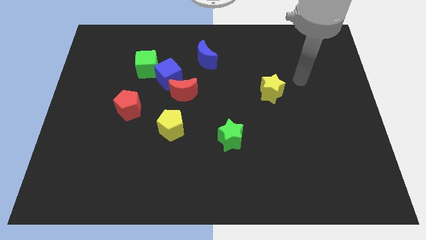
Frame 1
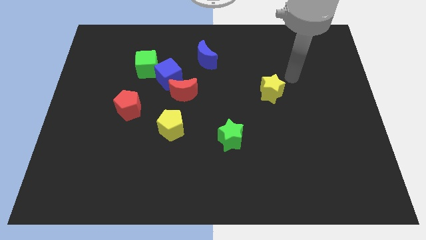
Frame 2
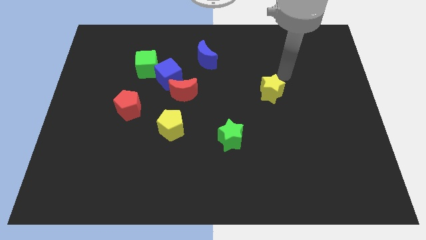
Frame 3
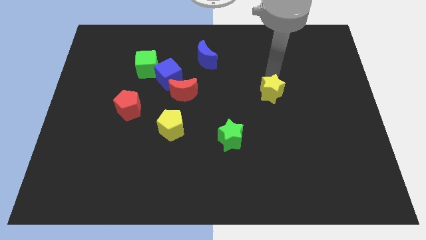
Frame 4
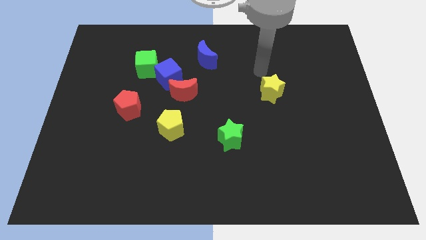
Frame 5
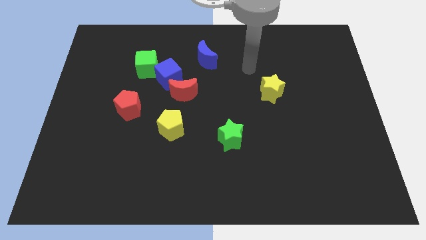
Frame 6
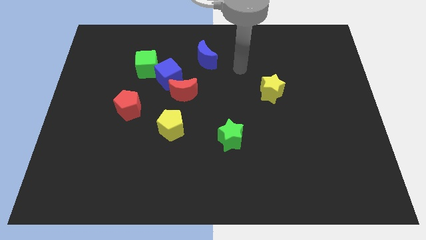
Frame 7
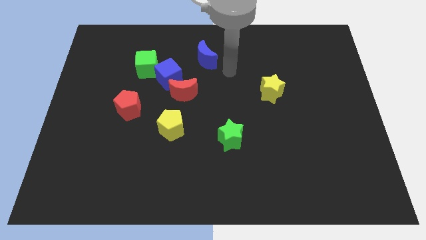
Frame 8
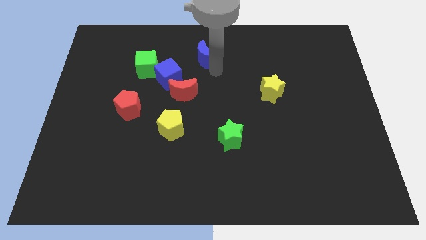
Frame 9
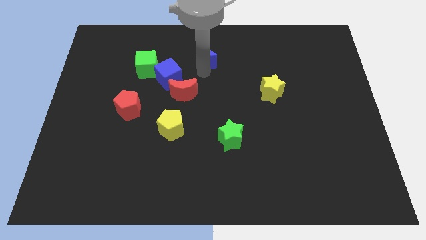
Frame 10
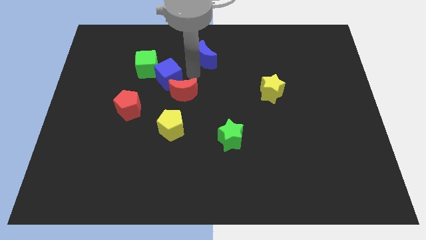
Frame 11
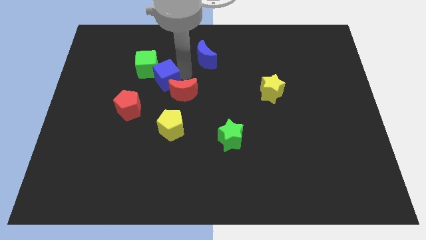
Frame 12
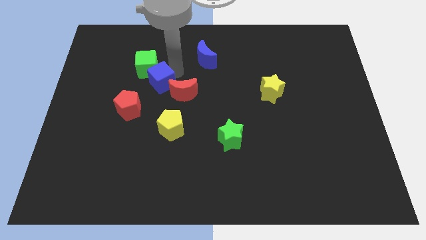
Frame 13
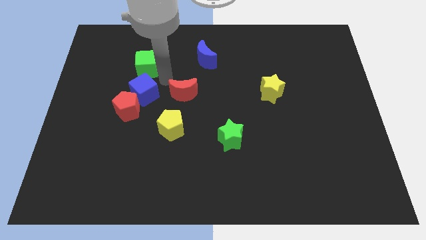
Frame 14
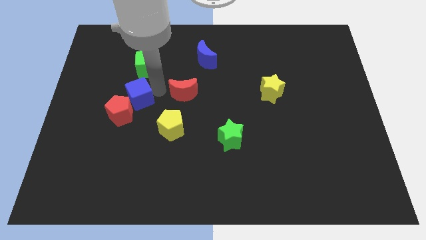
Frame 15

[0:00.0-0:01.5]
move the red moon away from the blue cube

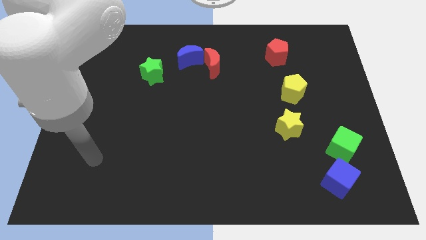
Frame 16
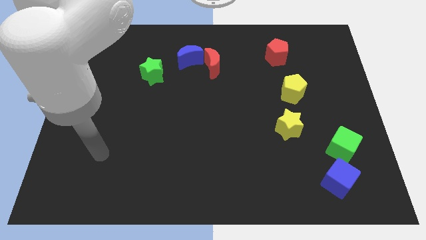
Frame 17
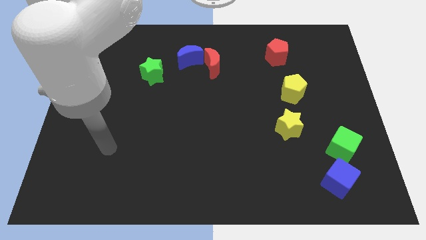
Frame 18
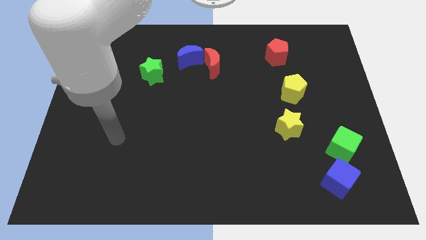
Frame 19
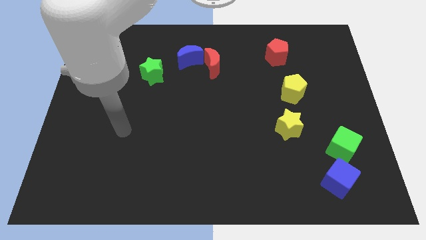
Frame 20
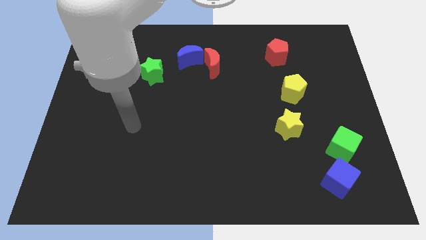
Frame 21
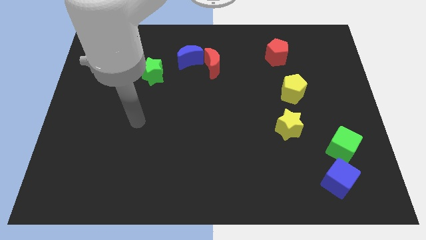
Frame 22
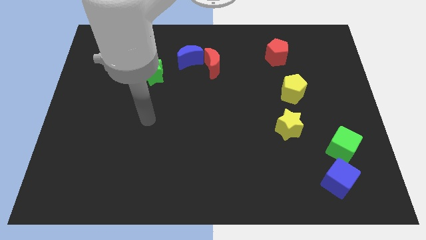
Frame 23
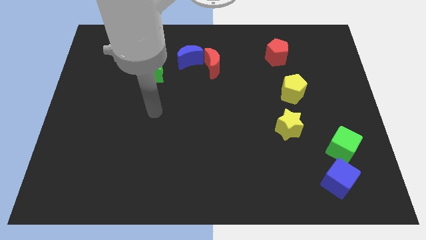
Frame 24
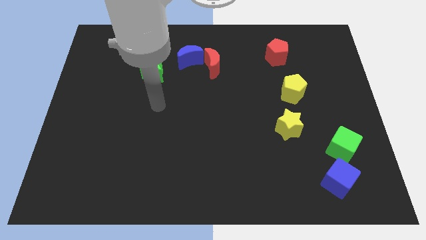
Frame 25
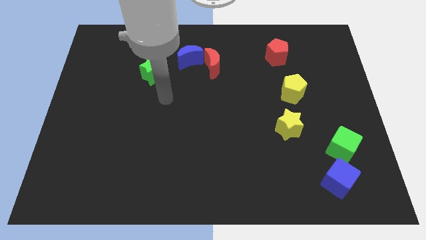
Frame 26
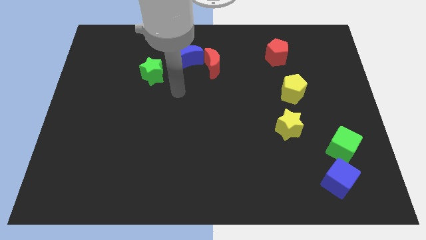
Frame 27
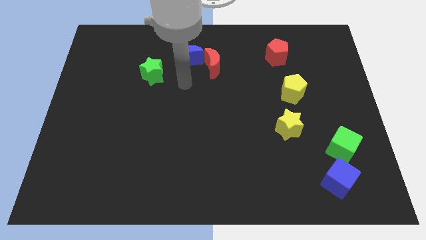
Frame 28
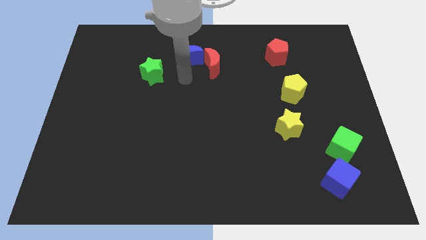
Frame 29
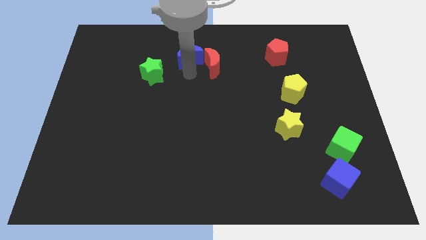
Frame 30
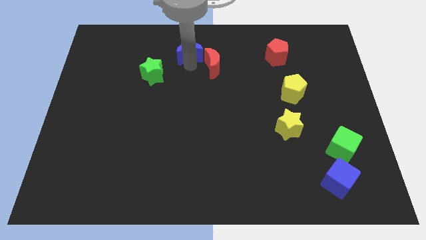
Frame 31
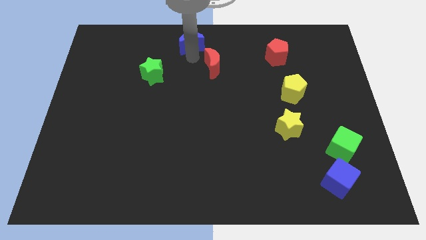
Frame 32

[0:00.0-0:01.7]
pull the red moon apart from the blue moon

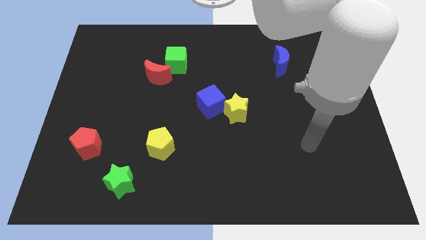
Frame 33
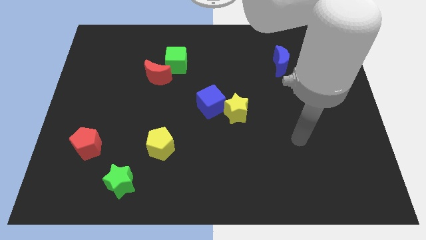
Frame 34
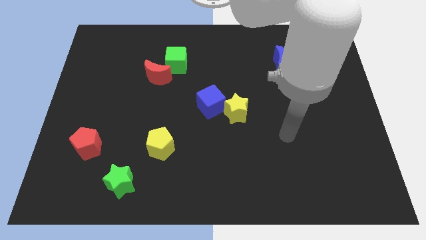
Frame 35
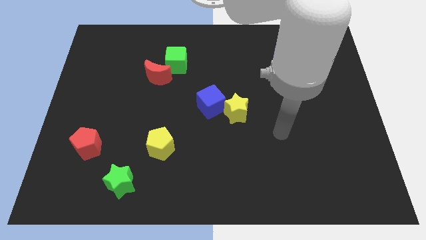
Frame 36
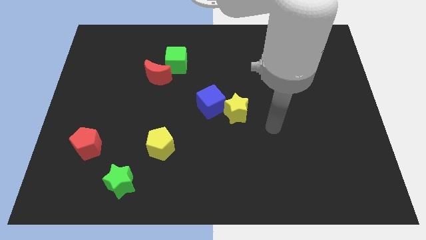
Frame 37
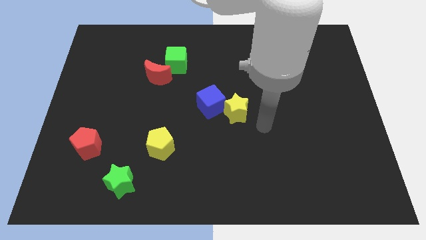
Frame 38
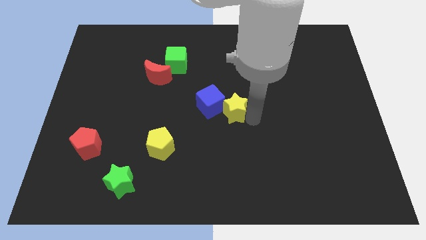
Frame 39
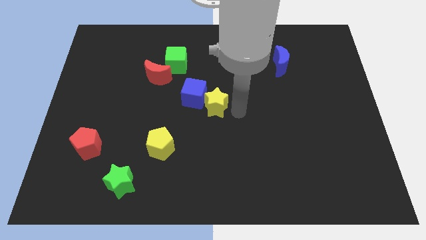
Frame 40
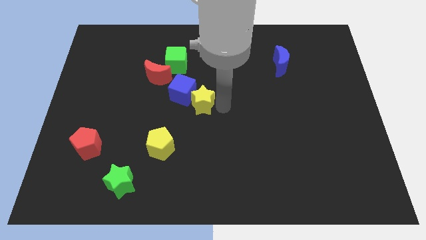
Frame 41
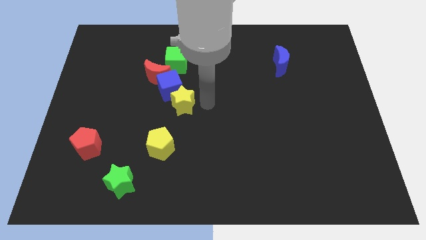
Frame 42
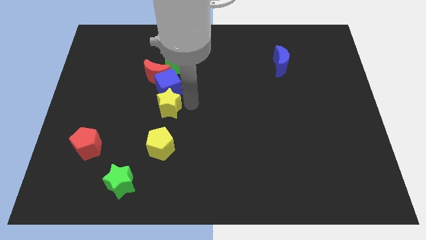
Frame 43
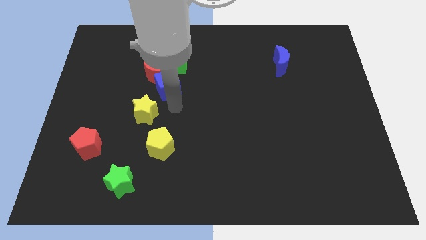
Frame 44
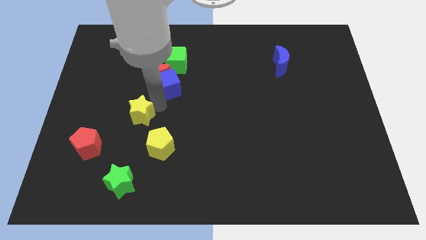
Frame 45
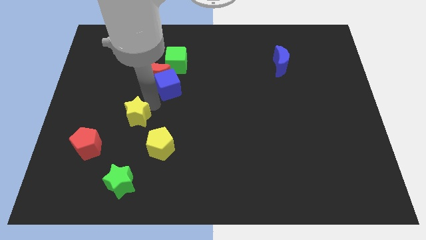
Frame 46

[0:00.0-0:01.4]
move the blue cube away from the yellow star

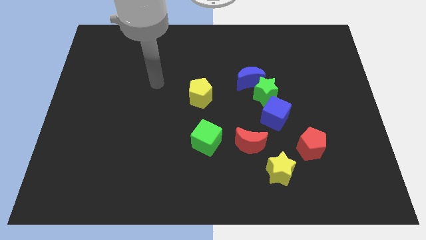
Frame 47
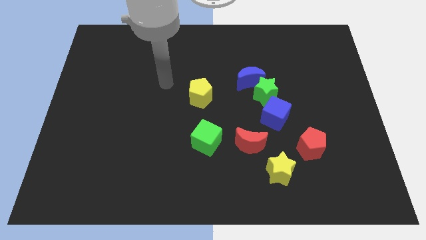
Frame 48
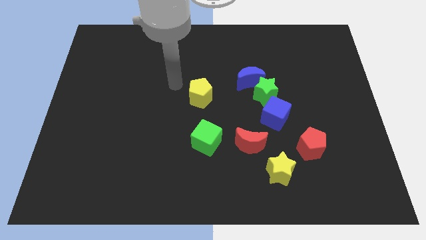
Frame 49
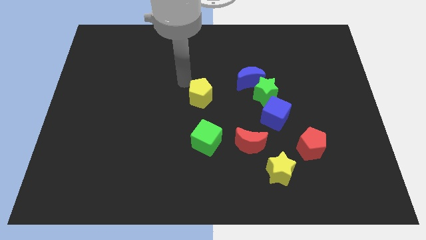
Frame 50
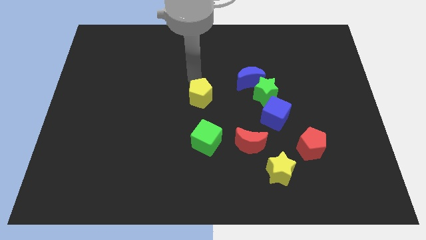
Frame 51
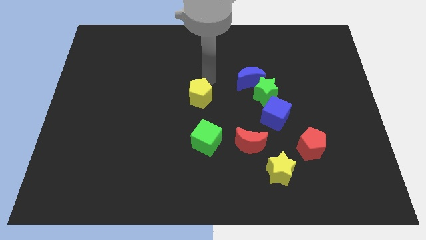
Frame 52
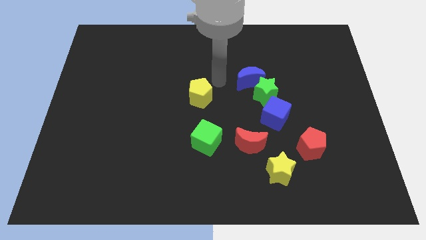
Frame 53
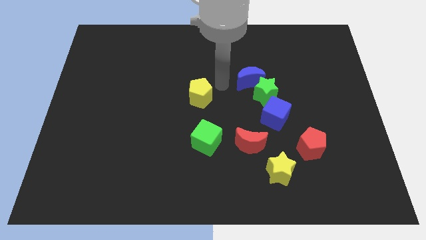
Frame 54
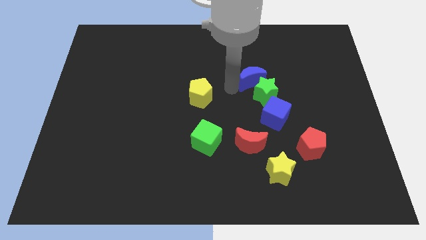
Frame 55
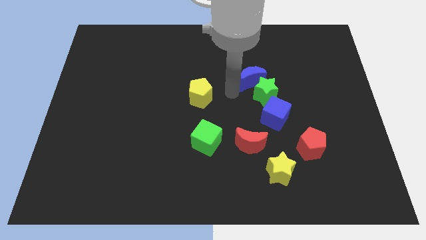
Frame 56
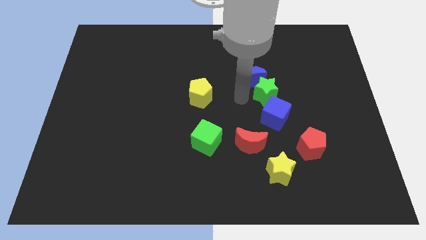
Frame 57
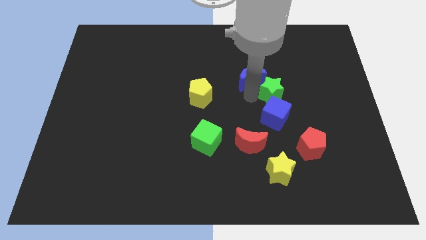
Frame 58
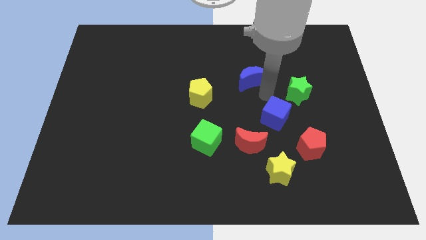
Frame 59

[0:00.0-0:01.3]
separate the blue moon from the green star

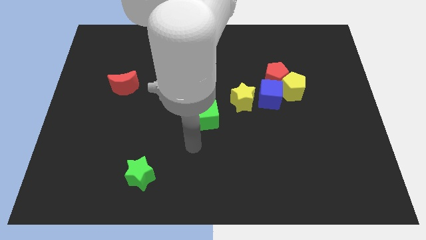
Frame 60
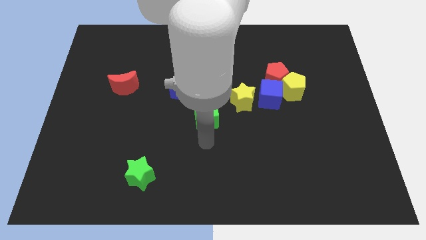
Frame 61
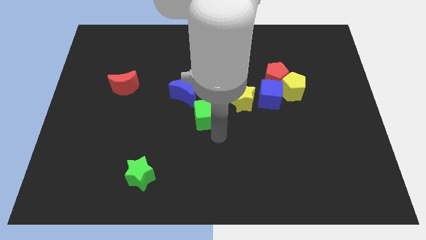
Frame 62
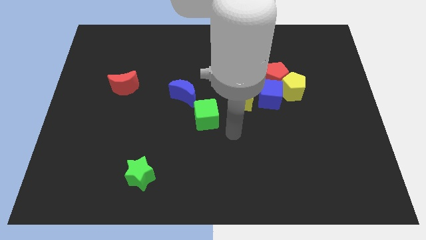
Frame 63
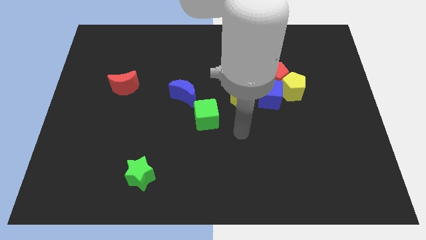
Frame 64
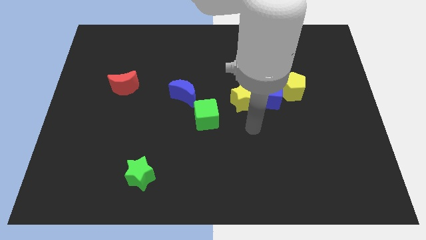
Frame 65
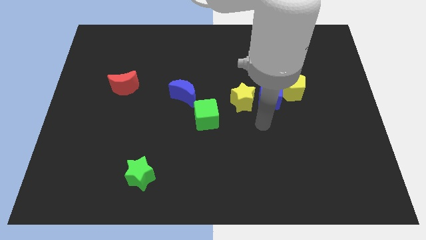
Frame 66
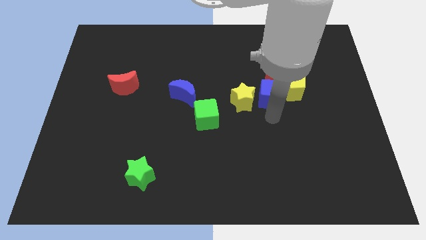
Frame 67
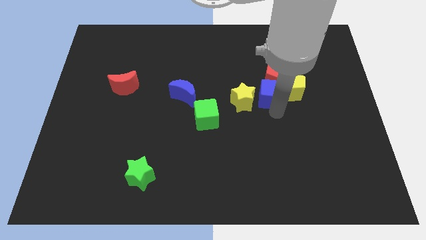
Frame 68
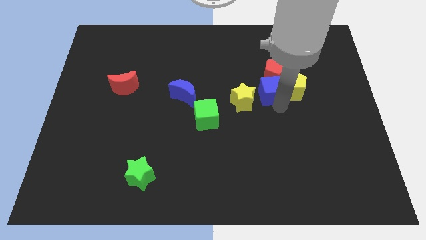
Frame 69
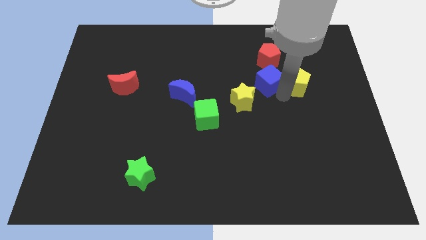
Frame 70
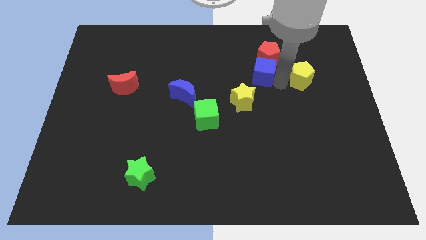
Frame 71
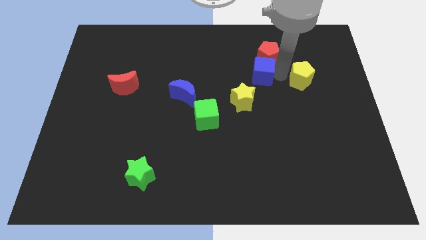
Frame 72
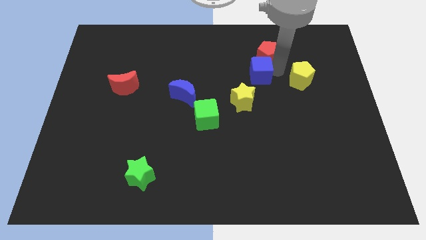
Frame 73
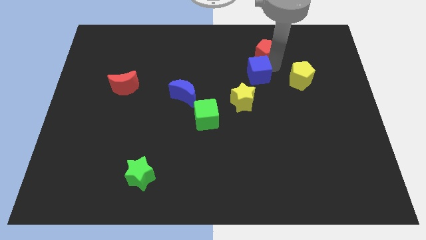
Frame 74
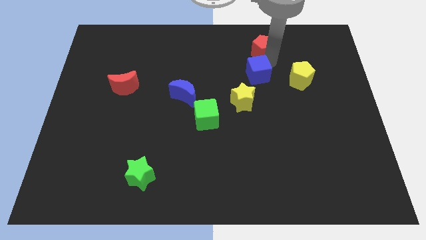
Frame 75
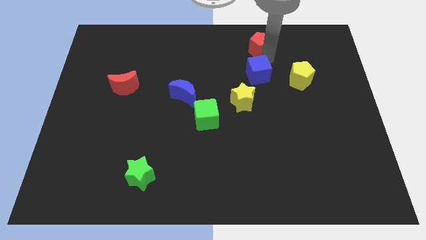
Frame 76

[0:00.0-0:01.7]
move the red pentagon away from the yellow pentagon and blue cube

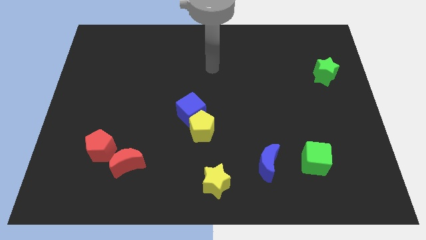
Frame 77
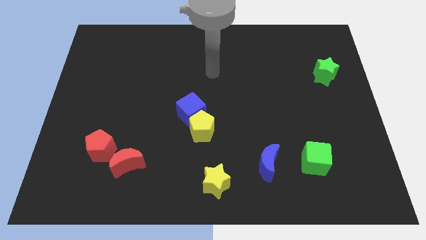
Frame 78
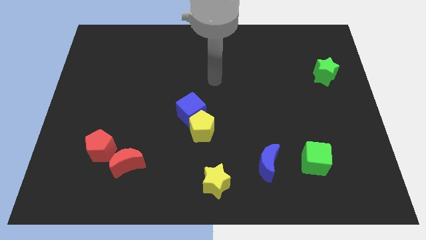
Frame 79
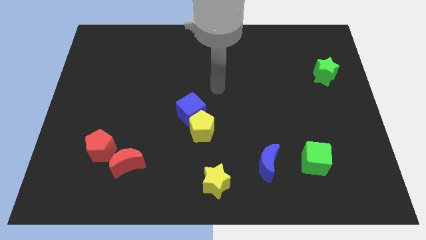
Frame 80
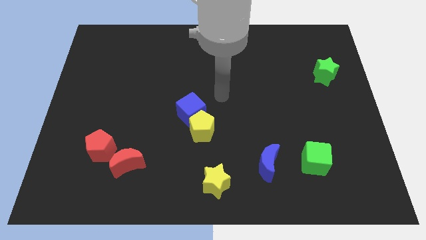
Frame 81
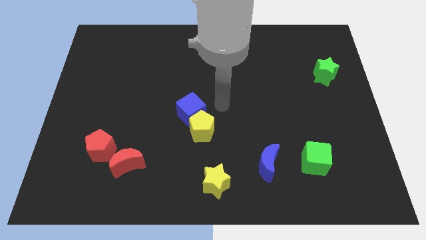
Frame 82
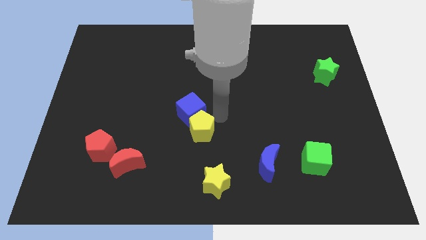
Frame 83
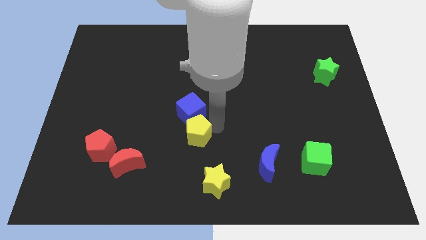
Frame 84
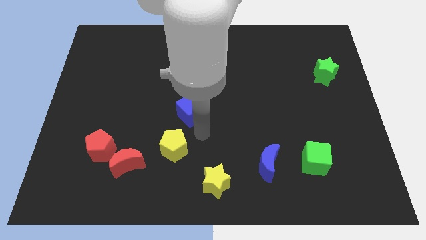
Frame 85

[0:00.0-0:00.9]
pull the blue cube apart from the yellow pentagon

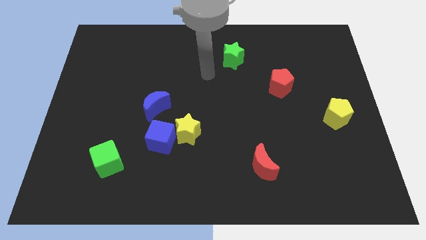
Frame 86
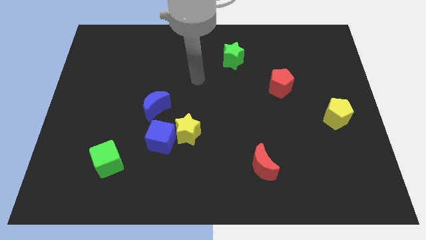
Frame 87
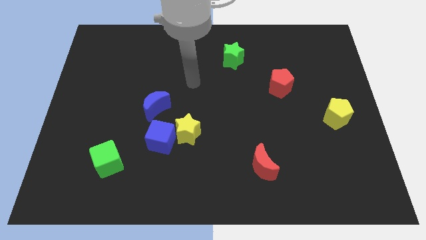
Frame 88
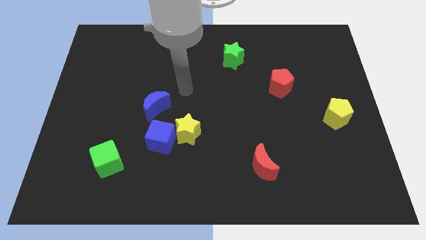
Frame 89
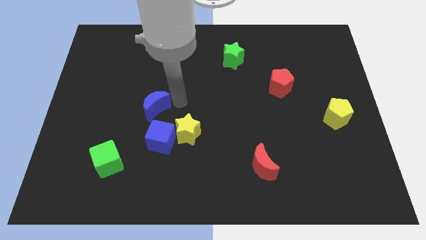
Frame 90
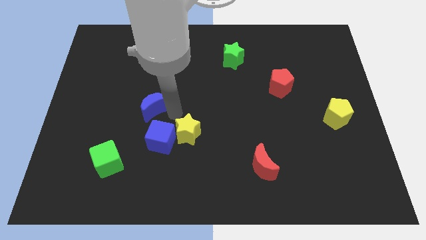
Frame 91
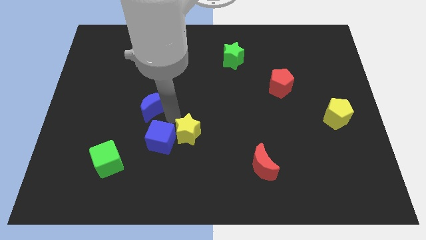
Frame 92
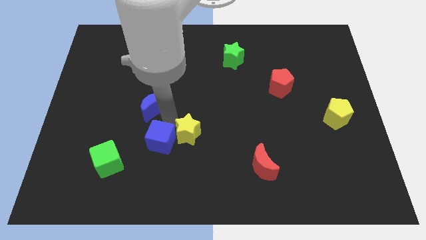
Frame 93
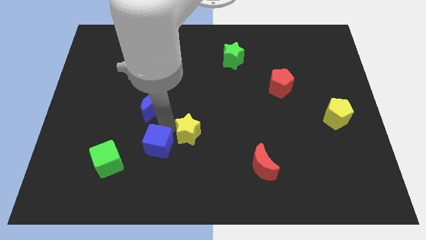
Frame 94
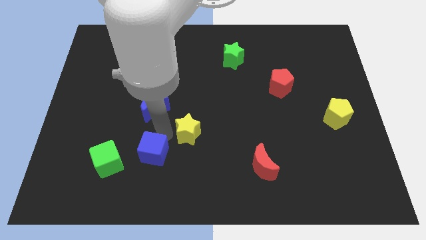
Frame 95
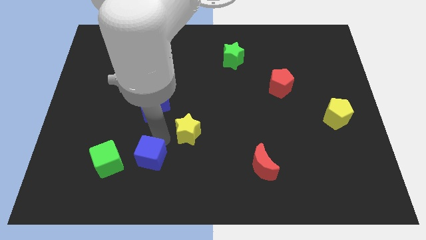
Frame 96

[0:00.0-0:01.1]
separate the blue cube from the yellow star and blue moon
